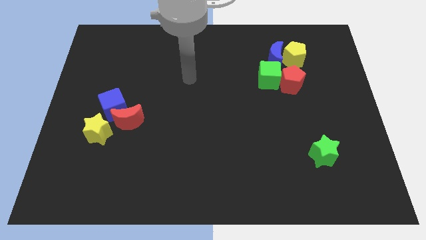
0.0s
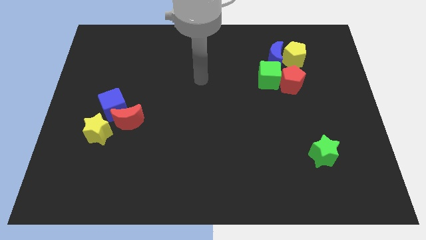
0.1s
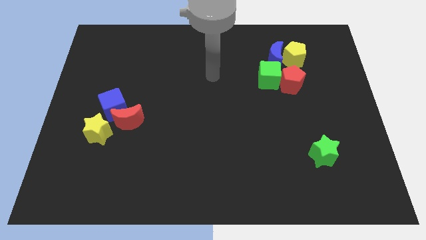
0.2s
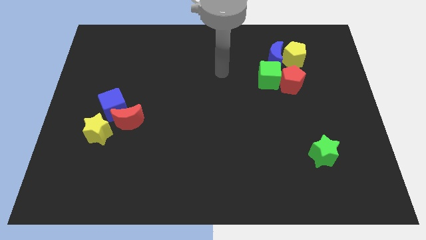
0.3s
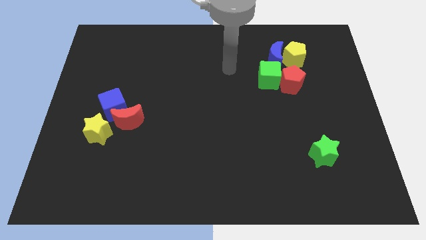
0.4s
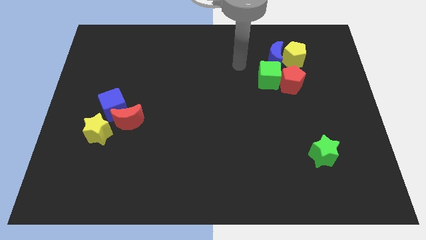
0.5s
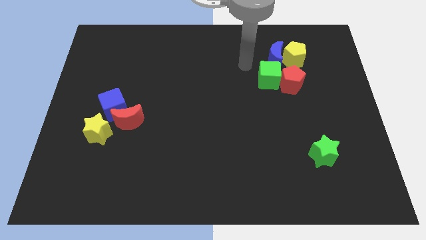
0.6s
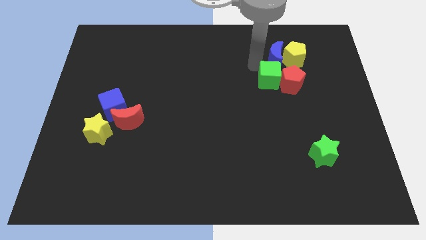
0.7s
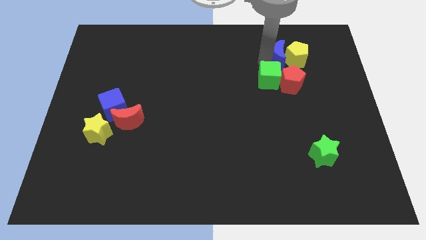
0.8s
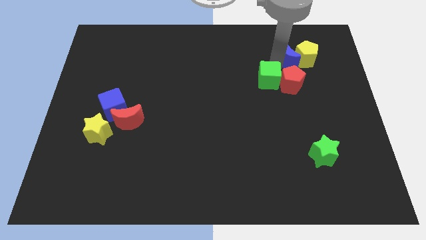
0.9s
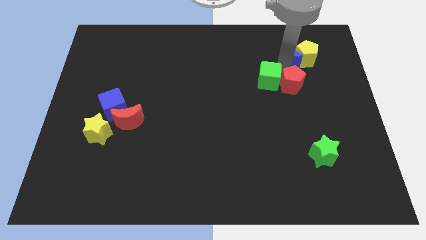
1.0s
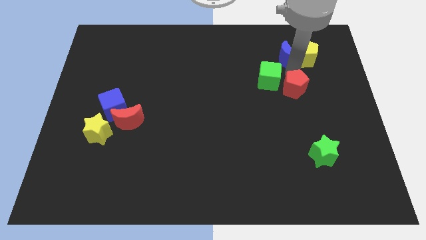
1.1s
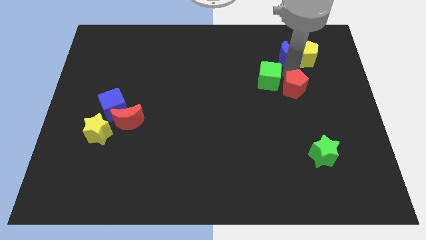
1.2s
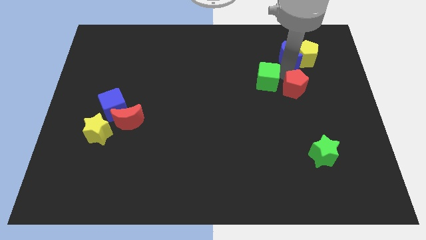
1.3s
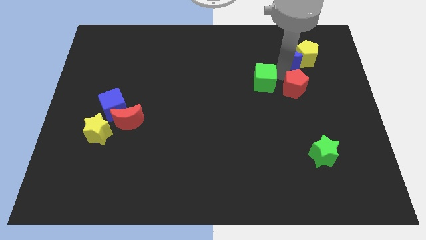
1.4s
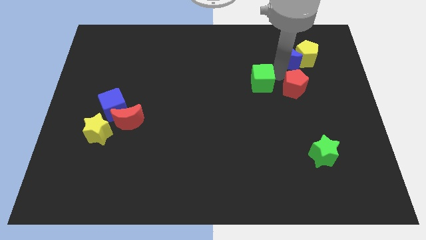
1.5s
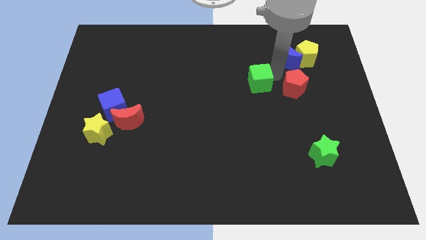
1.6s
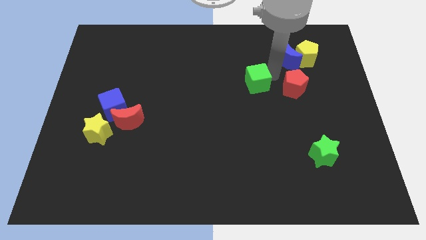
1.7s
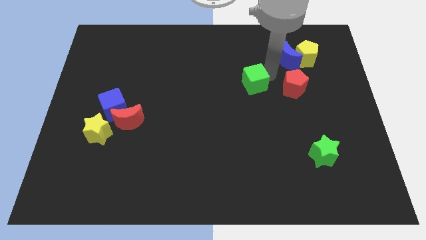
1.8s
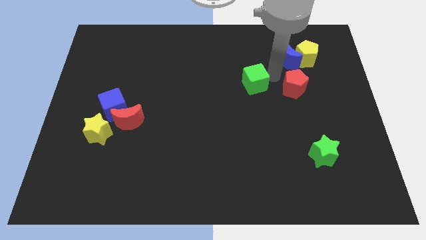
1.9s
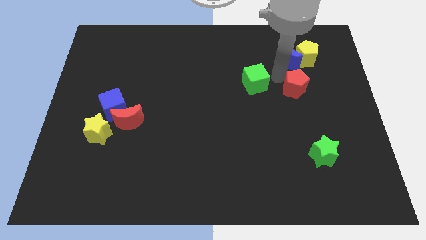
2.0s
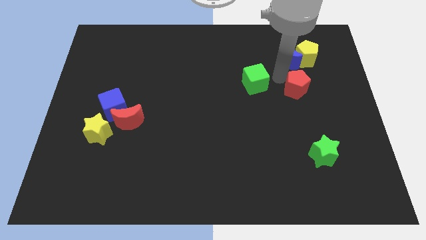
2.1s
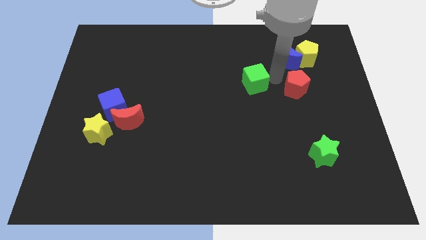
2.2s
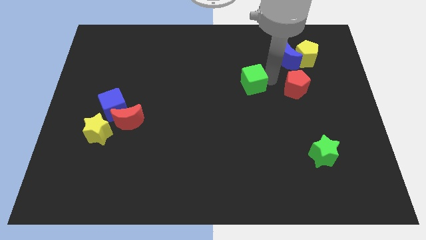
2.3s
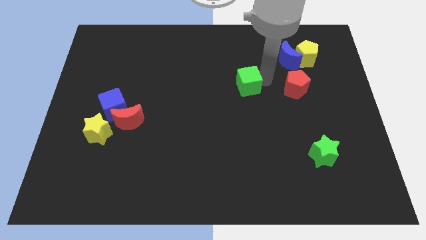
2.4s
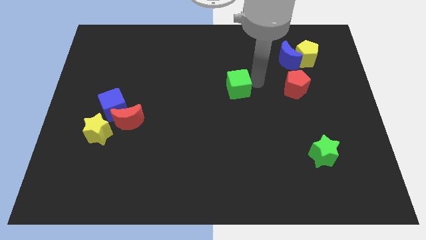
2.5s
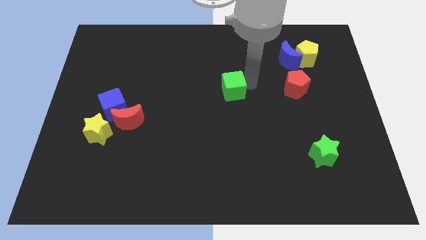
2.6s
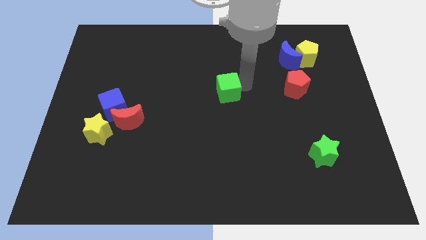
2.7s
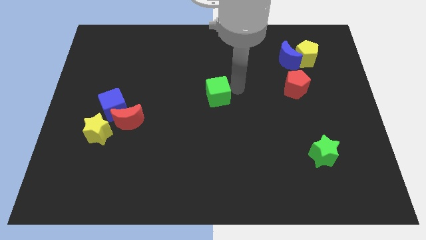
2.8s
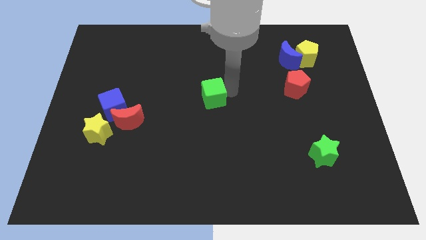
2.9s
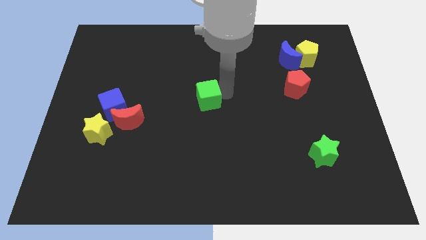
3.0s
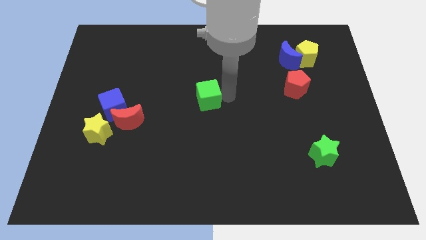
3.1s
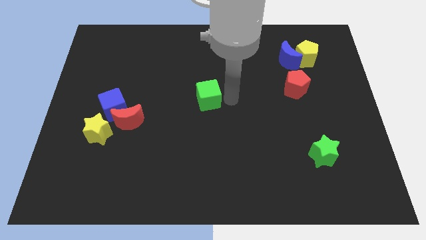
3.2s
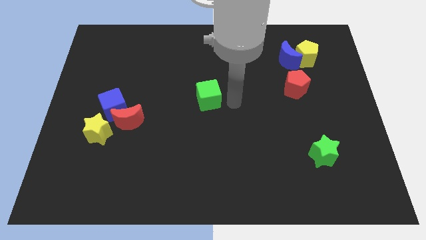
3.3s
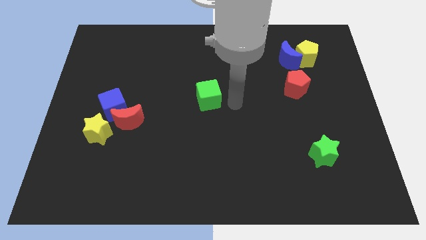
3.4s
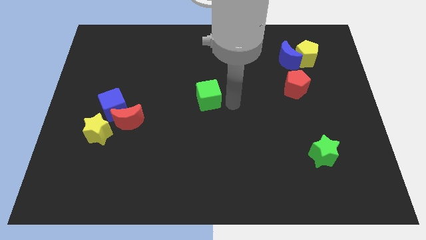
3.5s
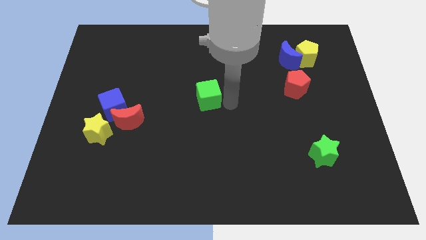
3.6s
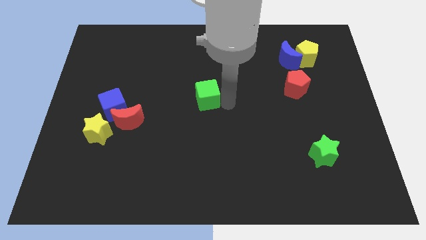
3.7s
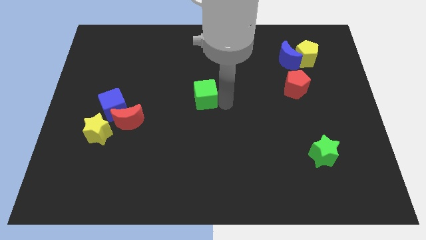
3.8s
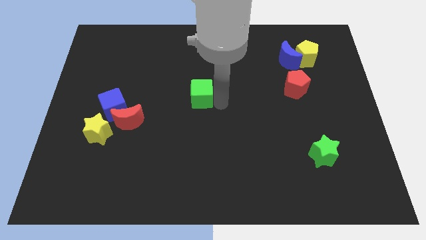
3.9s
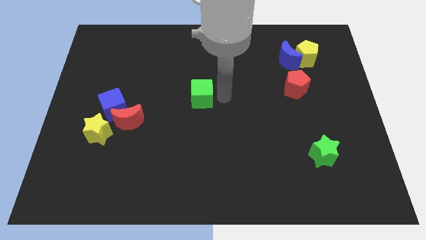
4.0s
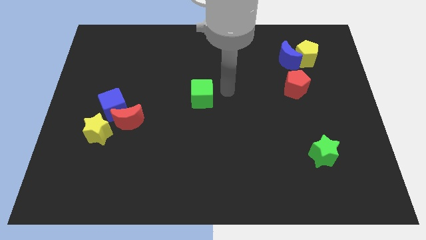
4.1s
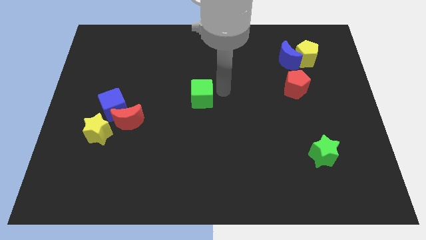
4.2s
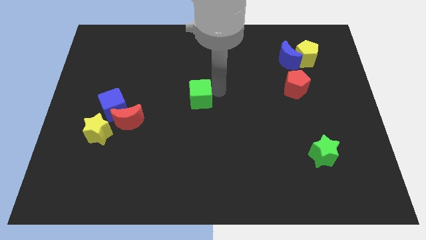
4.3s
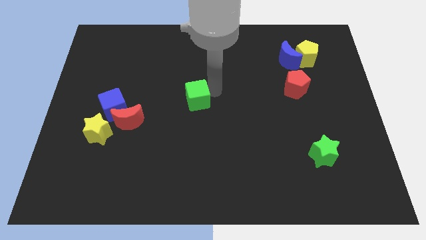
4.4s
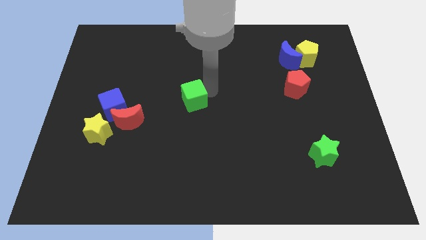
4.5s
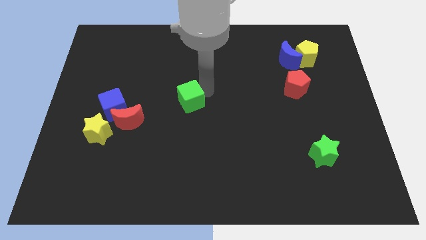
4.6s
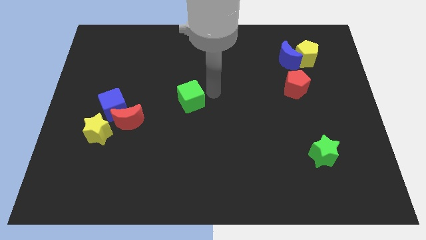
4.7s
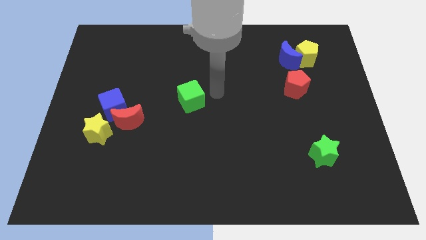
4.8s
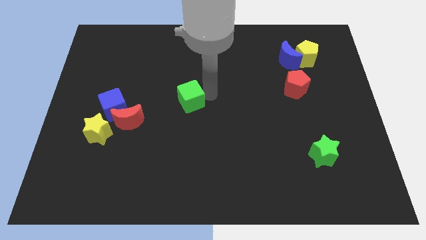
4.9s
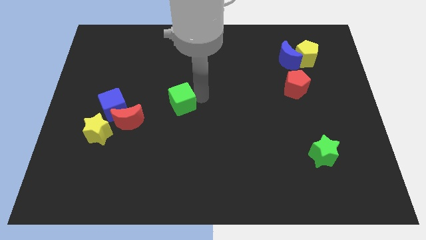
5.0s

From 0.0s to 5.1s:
push the green cube right of the blue cube

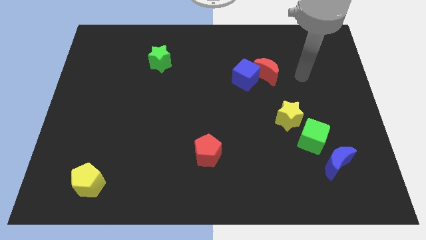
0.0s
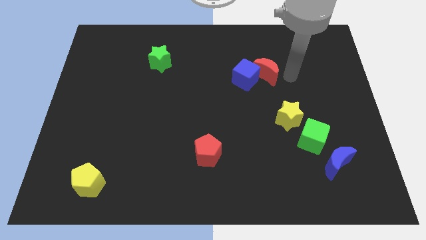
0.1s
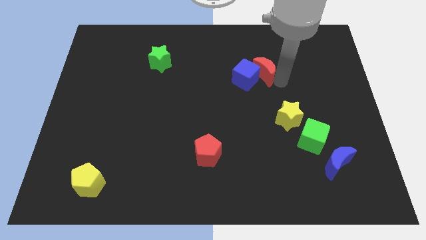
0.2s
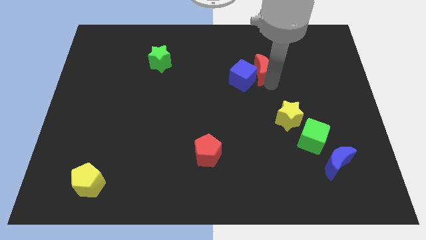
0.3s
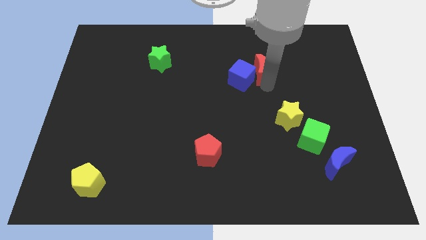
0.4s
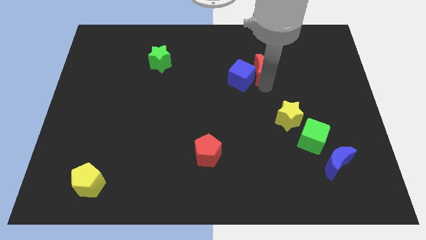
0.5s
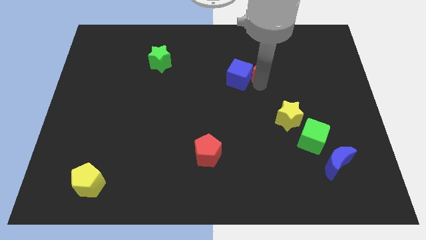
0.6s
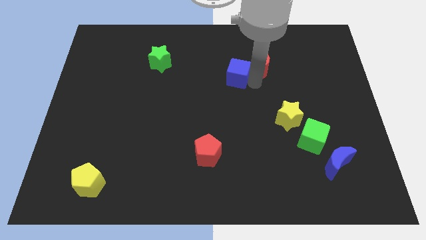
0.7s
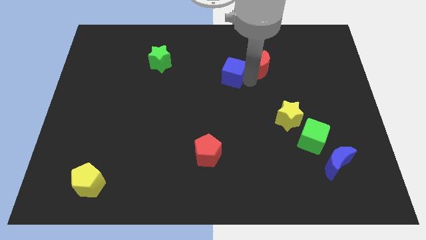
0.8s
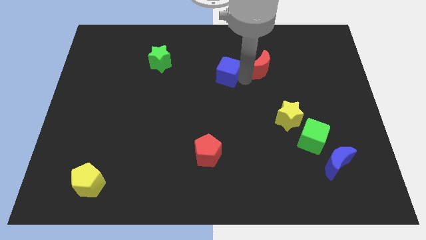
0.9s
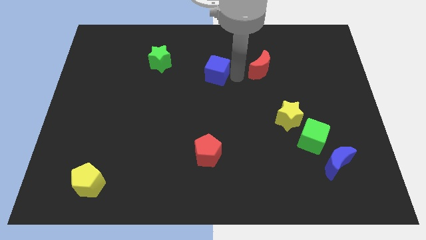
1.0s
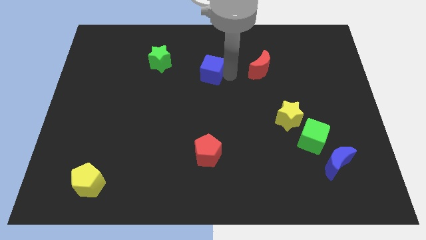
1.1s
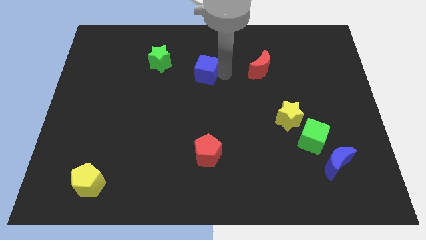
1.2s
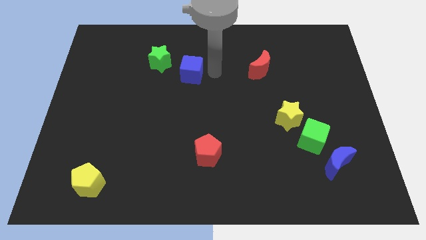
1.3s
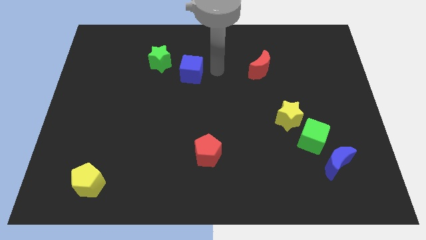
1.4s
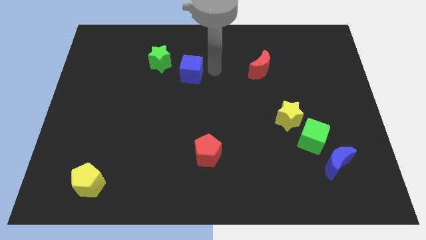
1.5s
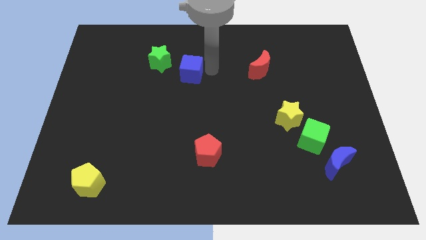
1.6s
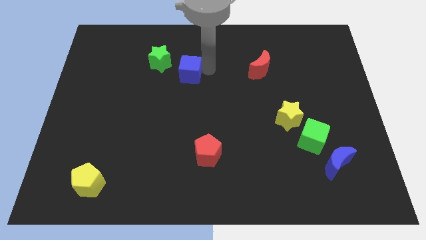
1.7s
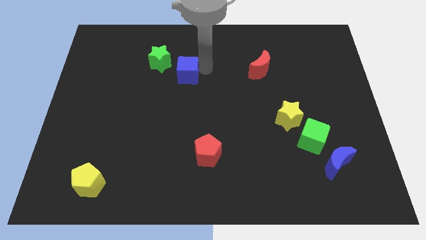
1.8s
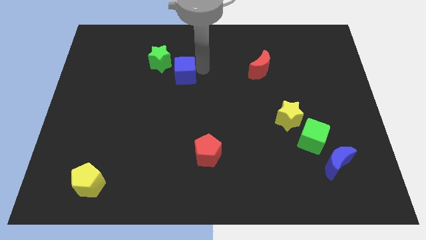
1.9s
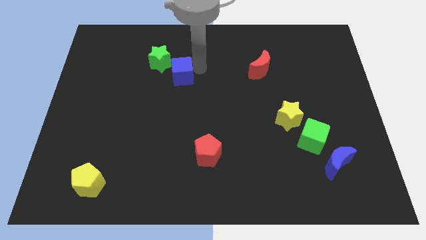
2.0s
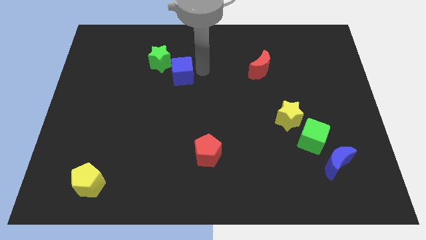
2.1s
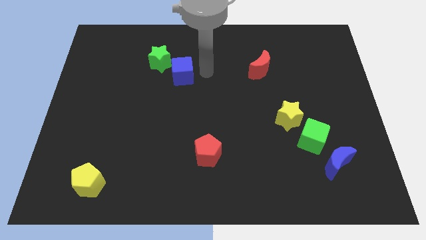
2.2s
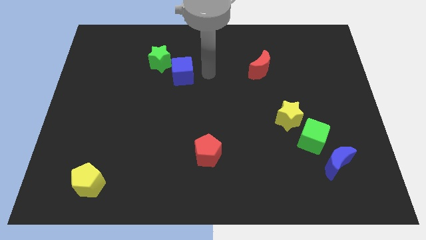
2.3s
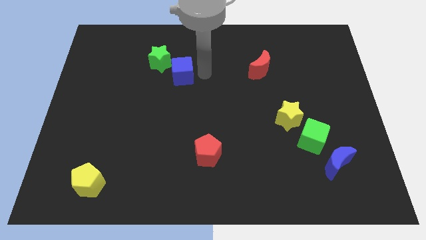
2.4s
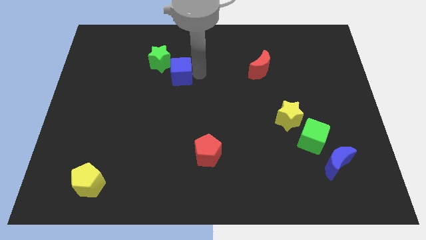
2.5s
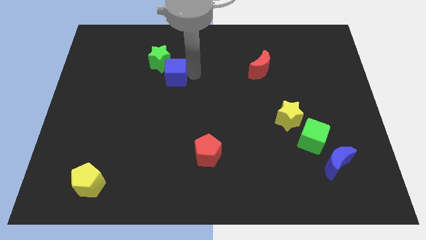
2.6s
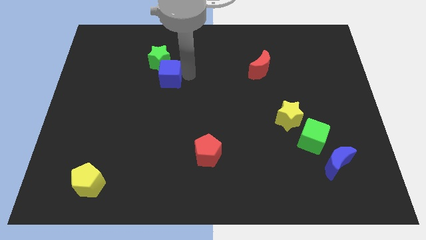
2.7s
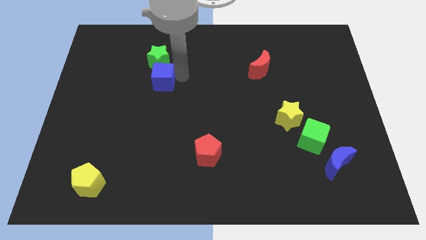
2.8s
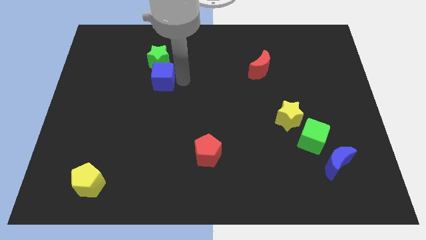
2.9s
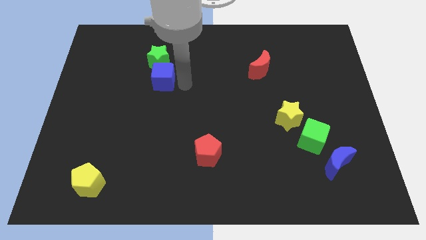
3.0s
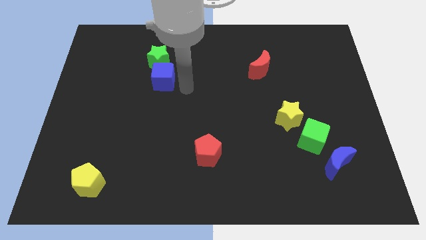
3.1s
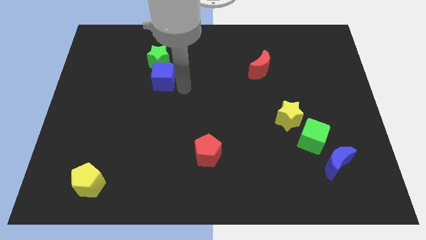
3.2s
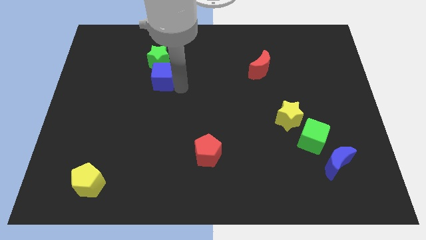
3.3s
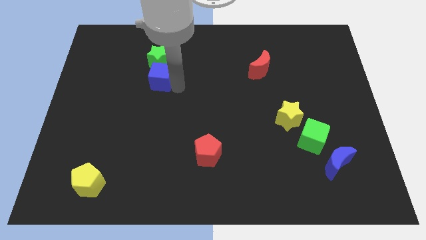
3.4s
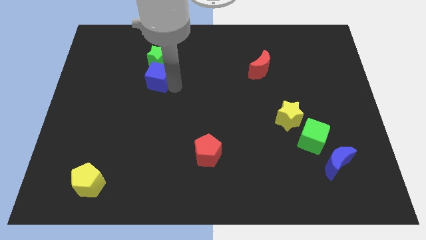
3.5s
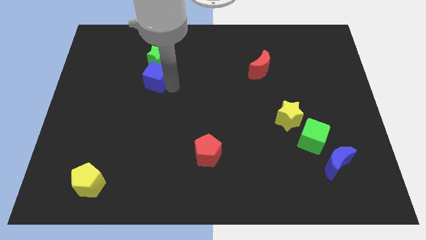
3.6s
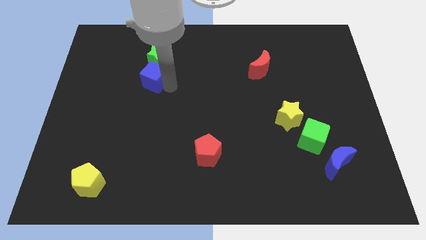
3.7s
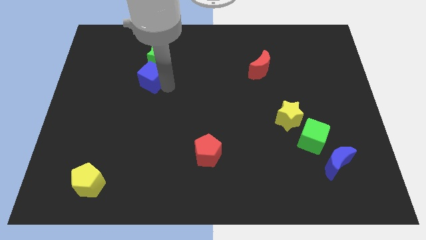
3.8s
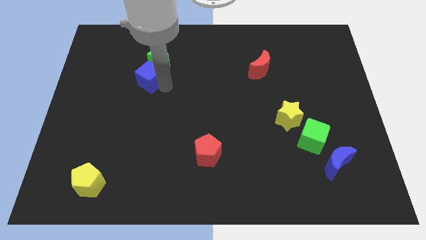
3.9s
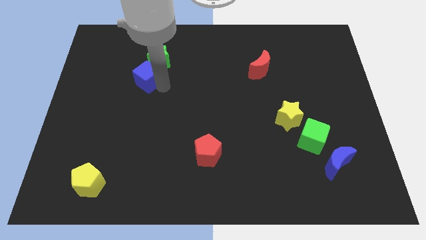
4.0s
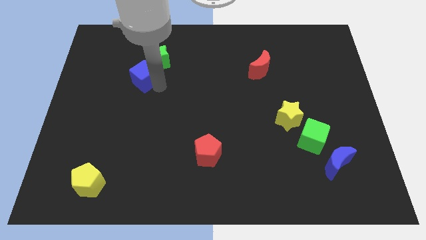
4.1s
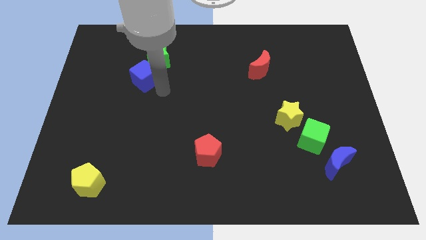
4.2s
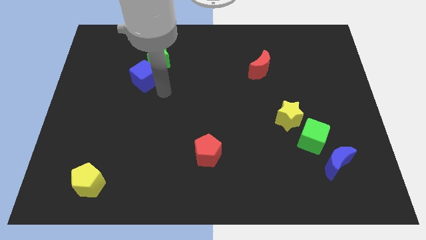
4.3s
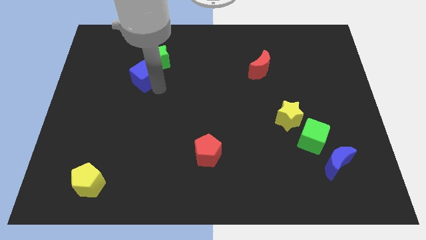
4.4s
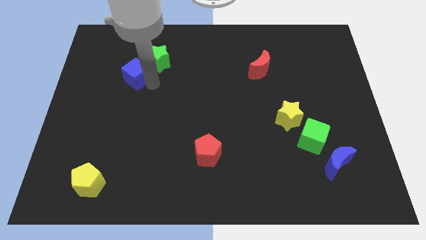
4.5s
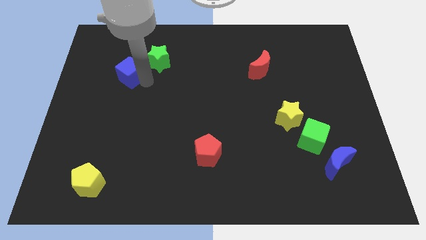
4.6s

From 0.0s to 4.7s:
move the blue cube left of the green star
